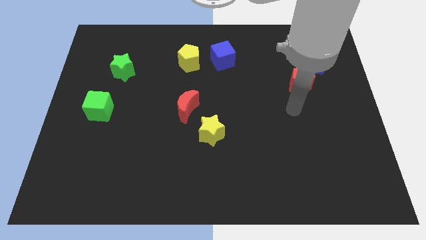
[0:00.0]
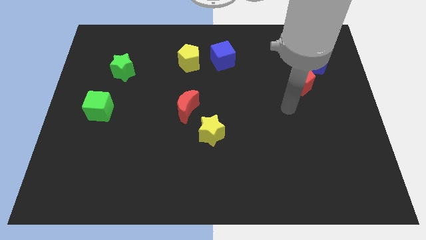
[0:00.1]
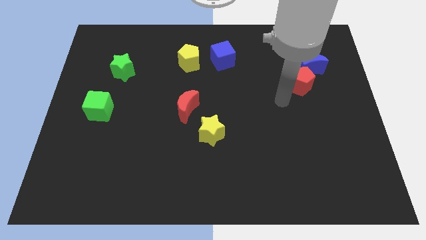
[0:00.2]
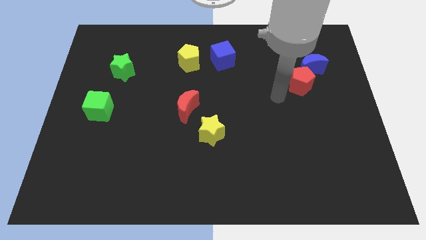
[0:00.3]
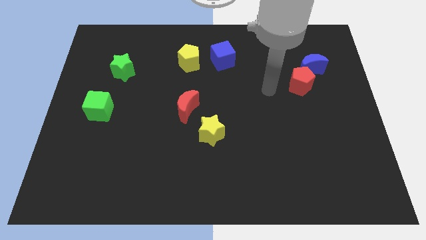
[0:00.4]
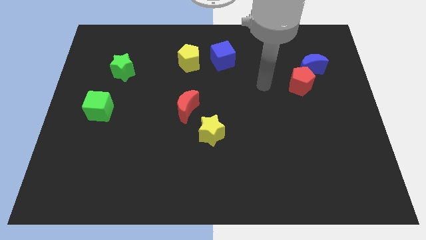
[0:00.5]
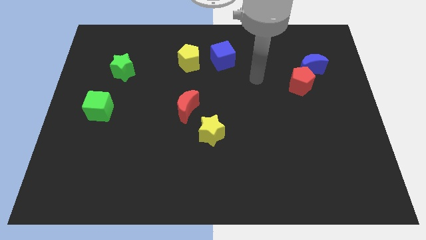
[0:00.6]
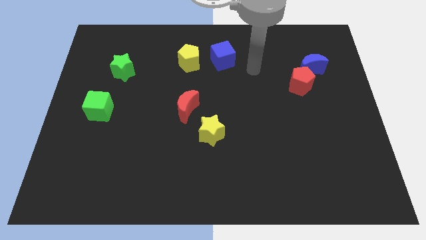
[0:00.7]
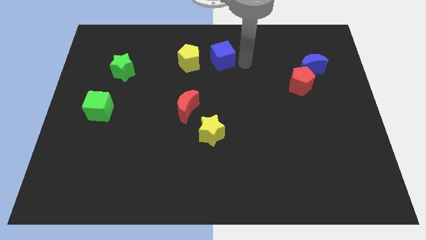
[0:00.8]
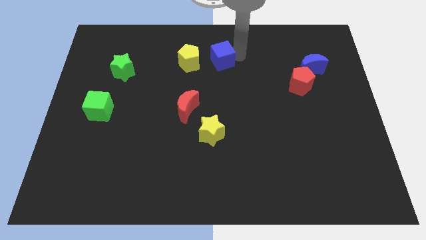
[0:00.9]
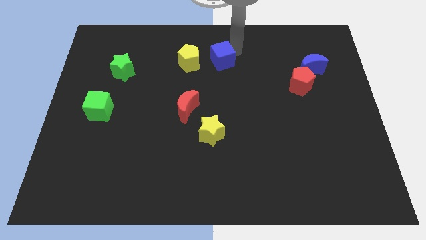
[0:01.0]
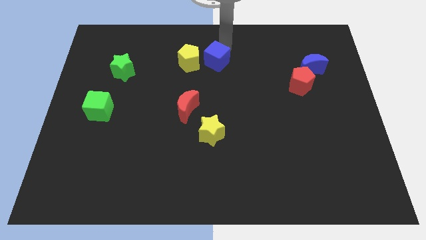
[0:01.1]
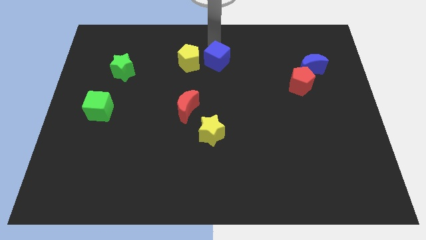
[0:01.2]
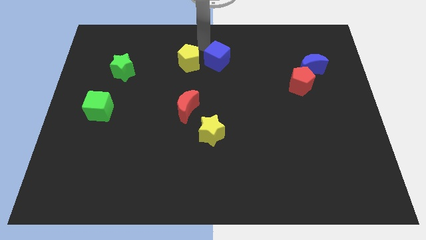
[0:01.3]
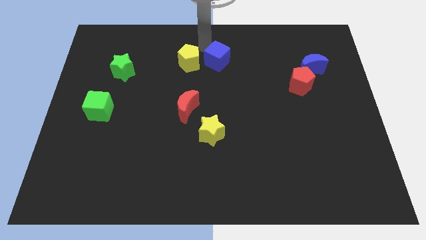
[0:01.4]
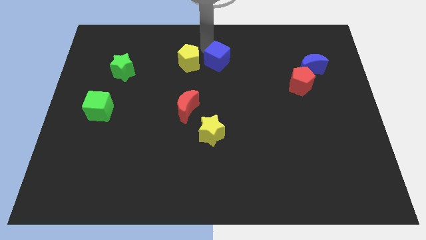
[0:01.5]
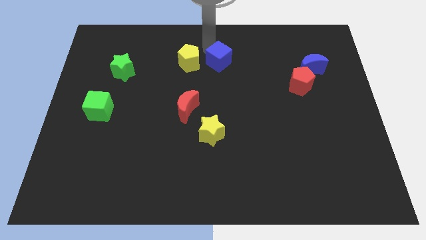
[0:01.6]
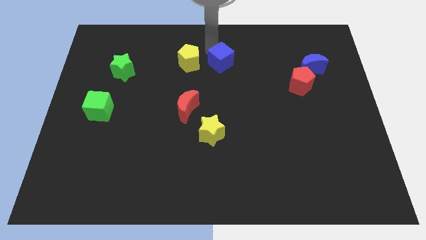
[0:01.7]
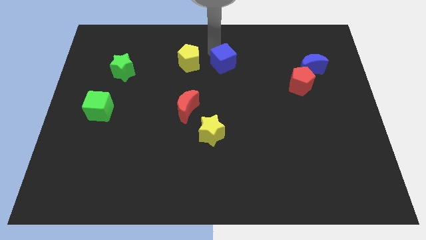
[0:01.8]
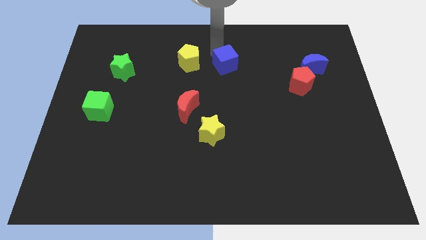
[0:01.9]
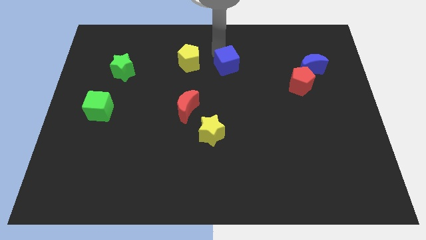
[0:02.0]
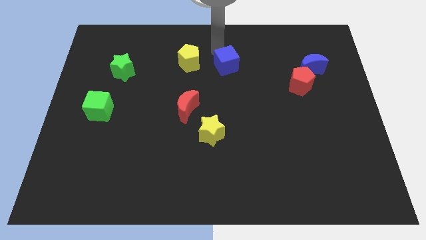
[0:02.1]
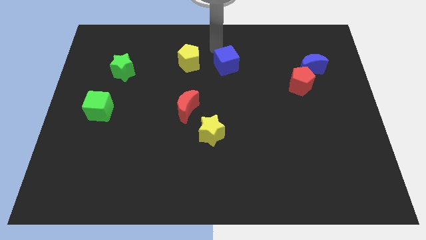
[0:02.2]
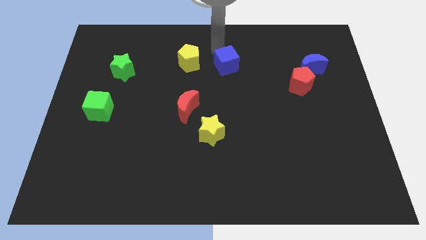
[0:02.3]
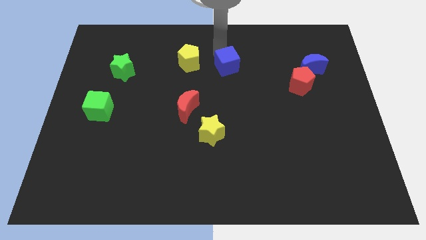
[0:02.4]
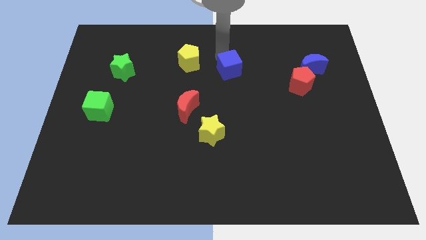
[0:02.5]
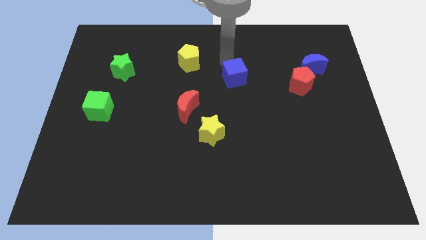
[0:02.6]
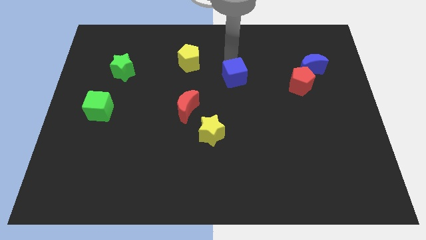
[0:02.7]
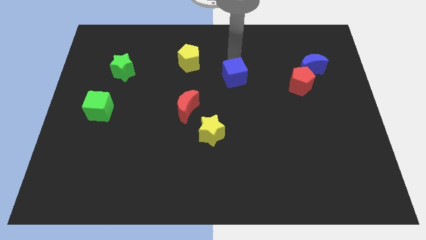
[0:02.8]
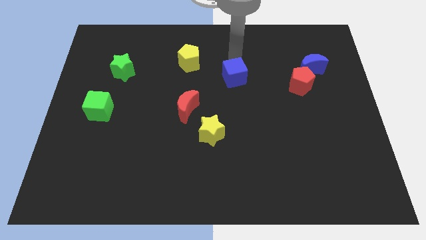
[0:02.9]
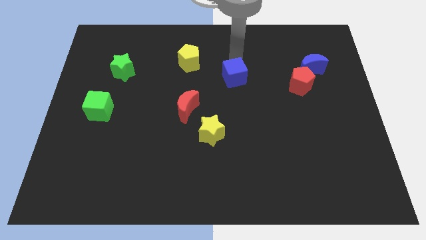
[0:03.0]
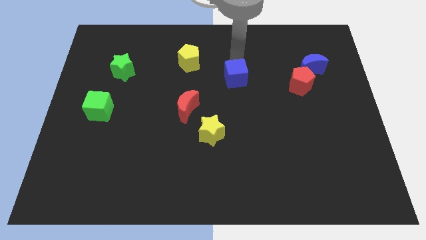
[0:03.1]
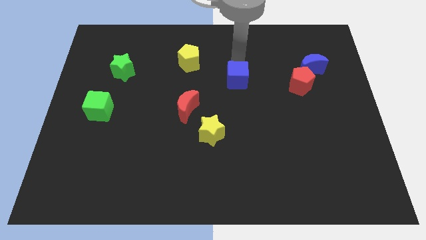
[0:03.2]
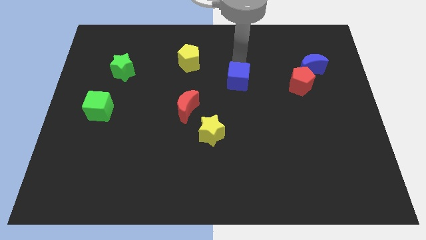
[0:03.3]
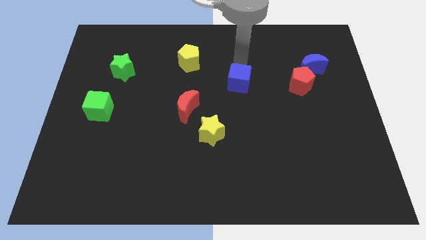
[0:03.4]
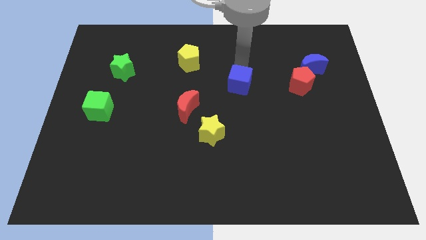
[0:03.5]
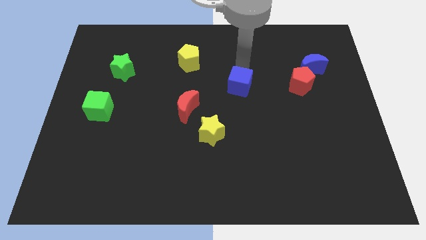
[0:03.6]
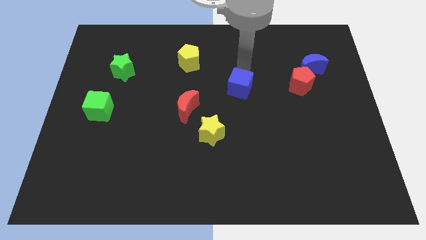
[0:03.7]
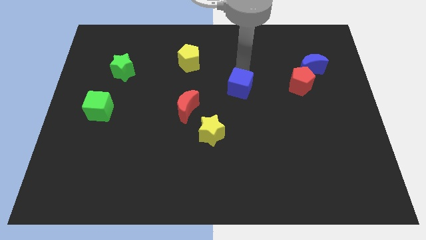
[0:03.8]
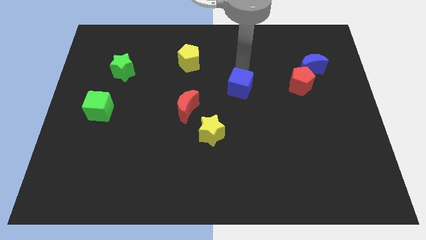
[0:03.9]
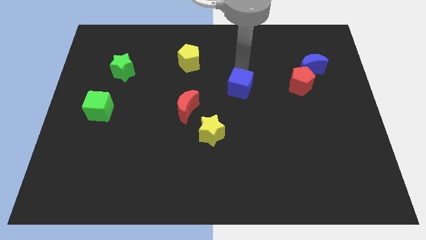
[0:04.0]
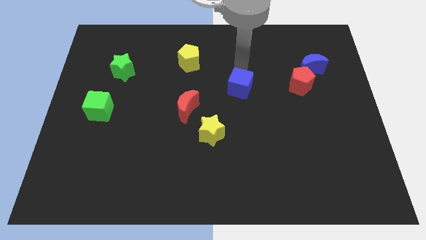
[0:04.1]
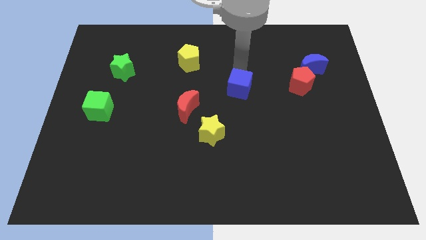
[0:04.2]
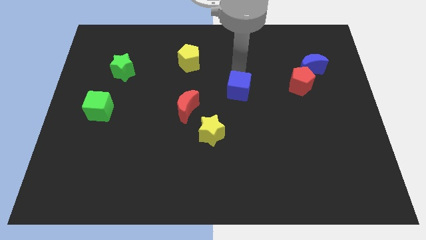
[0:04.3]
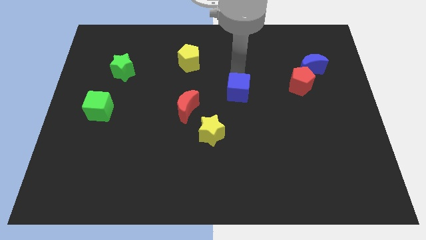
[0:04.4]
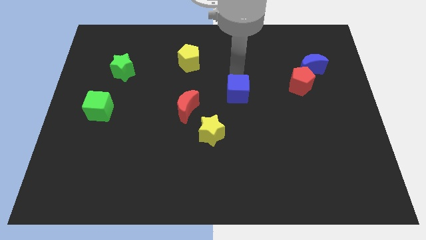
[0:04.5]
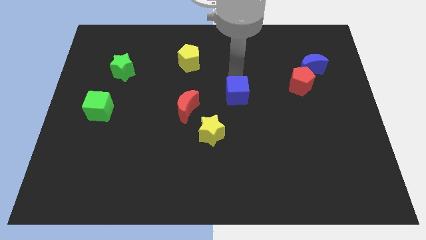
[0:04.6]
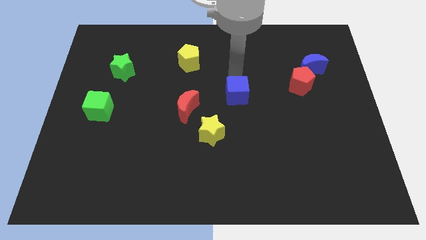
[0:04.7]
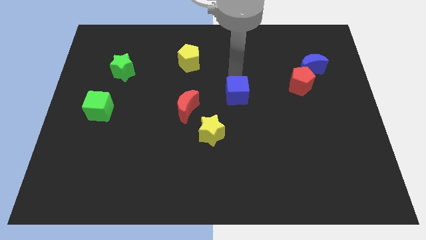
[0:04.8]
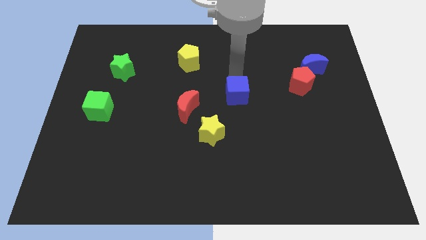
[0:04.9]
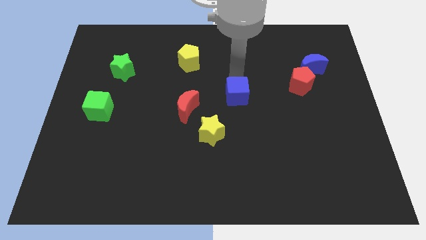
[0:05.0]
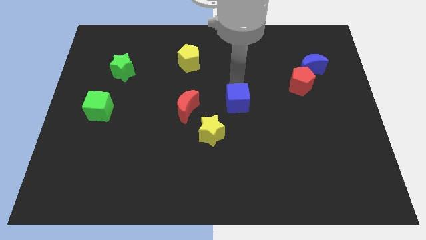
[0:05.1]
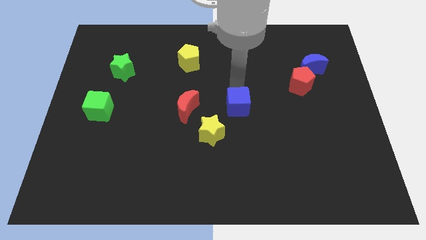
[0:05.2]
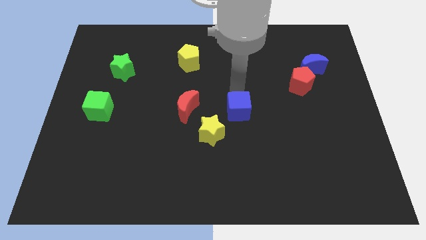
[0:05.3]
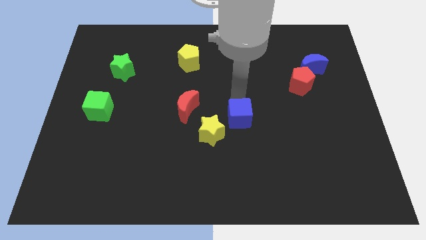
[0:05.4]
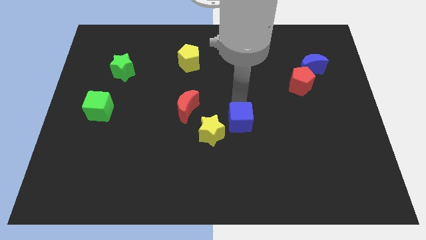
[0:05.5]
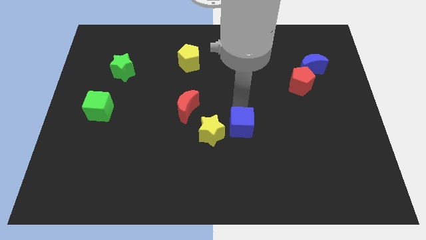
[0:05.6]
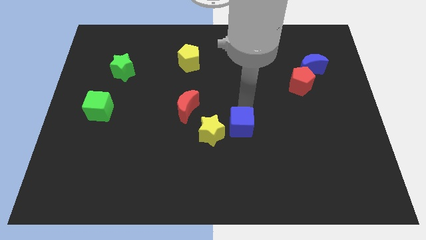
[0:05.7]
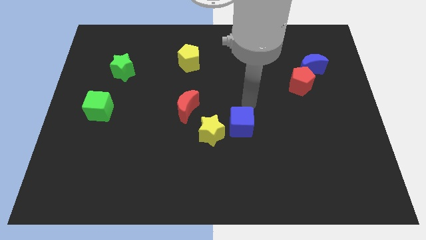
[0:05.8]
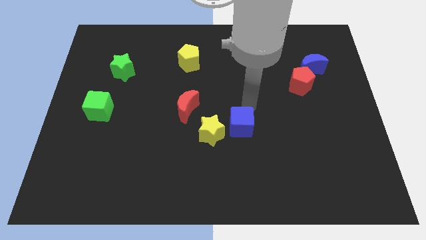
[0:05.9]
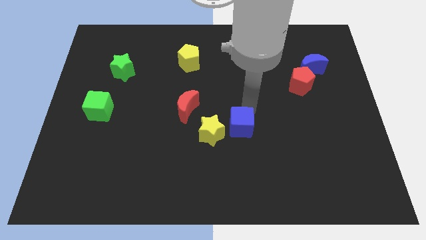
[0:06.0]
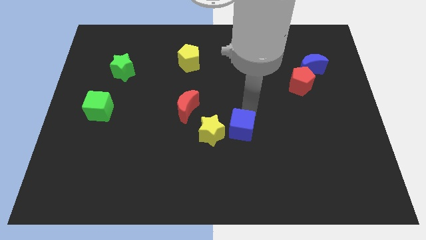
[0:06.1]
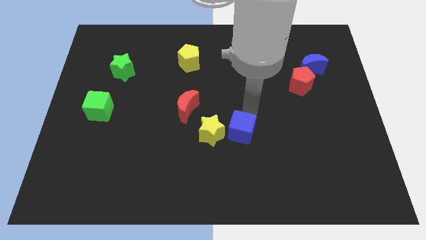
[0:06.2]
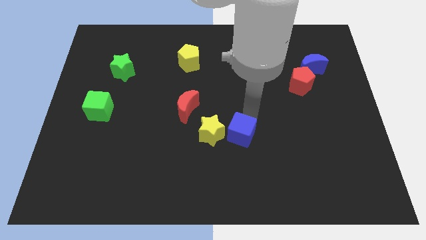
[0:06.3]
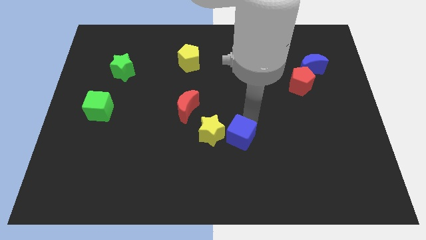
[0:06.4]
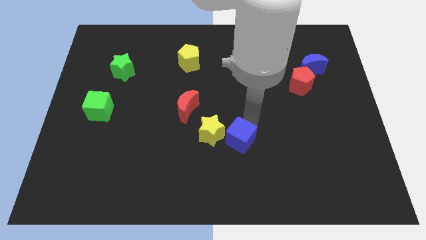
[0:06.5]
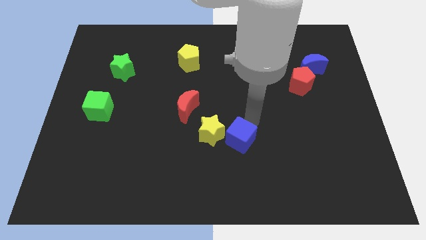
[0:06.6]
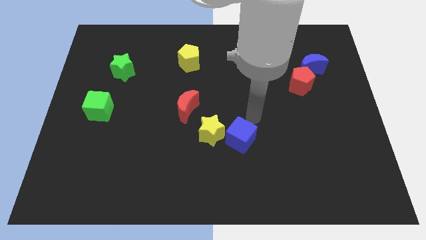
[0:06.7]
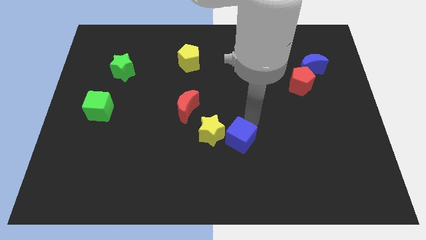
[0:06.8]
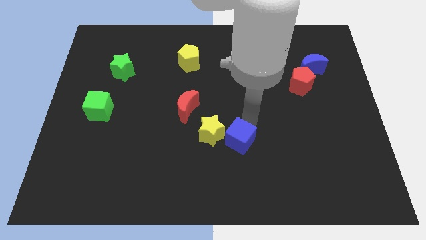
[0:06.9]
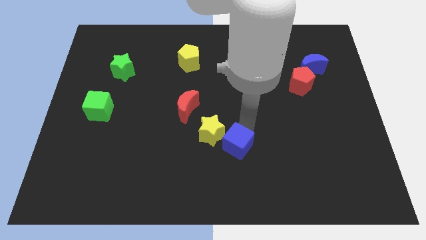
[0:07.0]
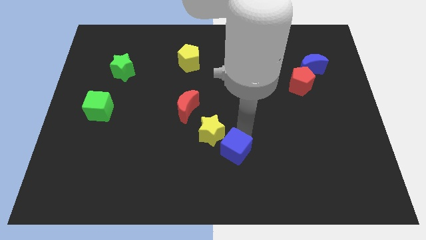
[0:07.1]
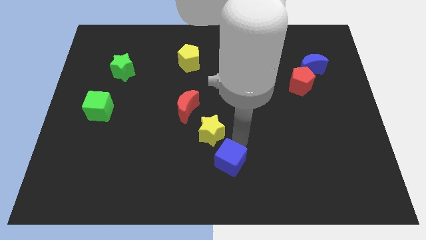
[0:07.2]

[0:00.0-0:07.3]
move the blue cube to the bottom side
